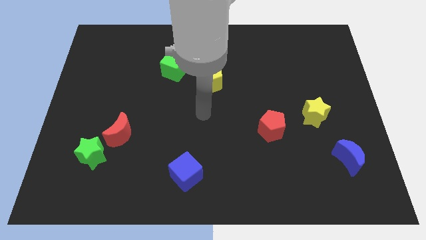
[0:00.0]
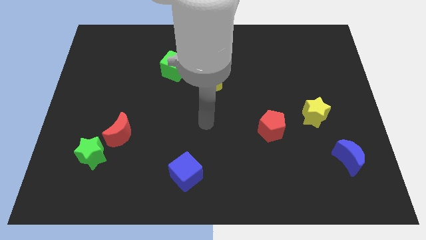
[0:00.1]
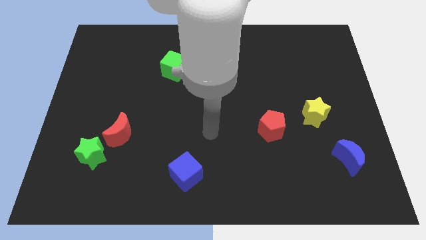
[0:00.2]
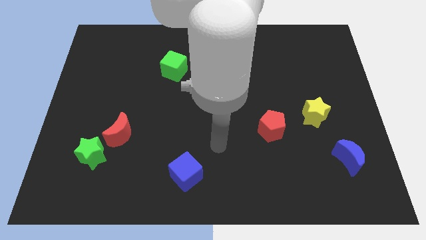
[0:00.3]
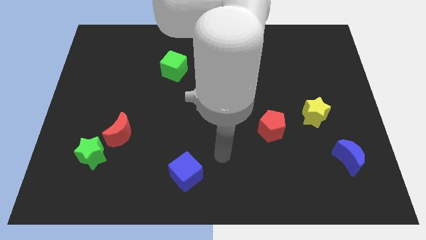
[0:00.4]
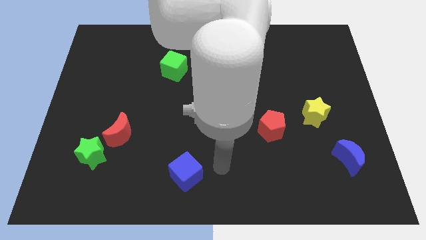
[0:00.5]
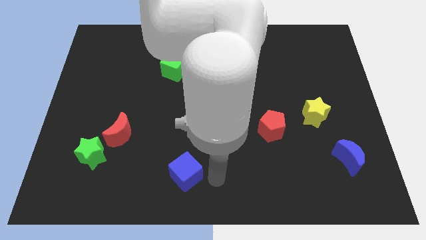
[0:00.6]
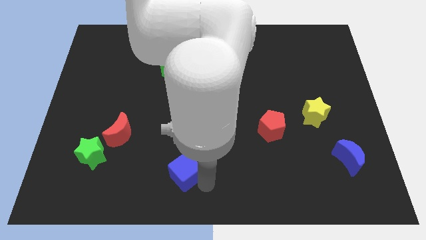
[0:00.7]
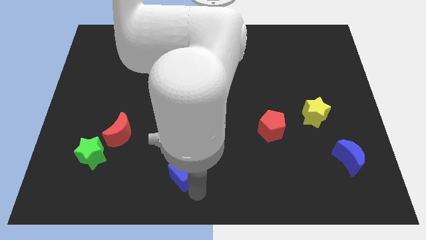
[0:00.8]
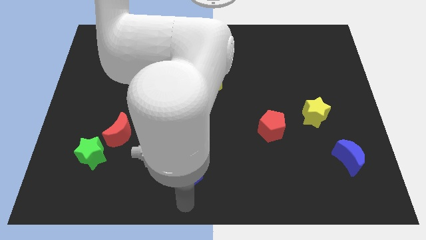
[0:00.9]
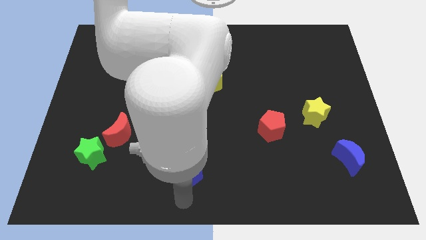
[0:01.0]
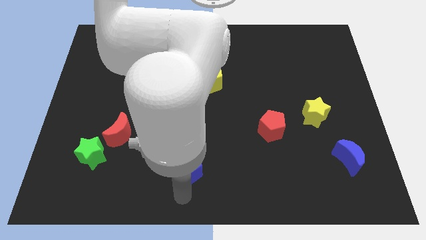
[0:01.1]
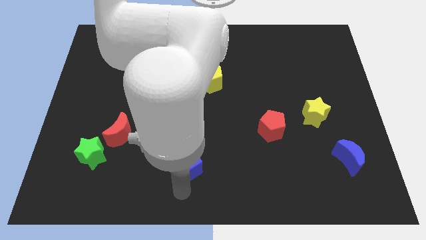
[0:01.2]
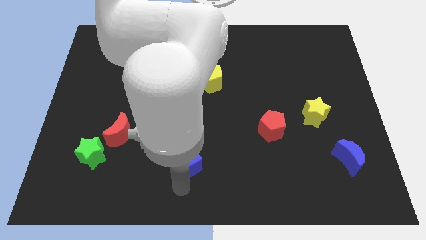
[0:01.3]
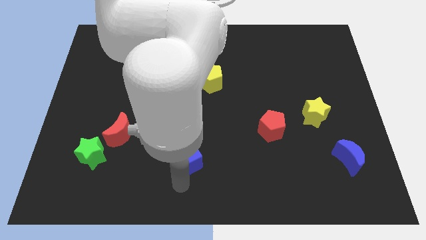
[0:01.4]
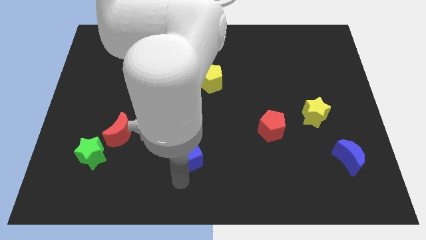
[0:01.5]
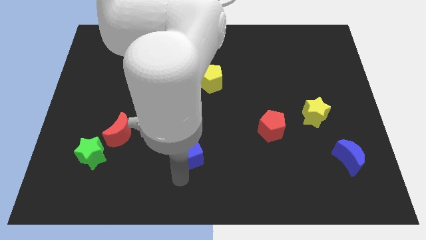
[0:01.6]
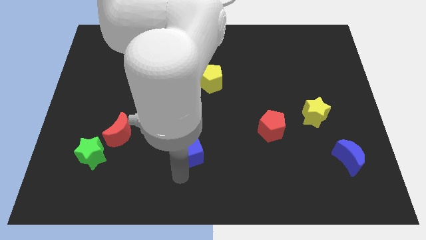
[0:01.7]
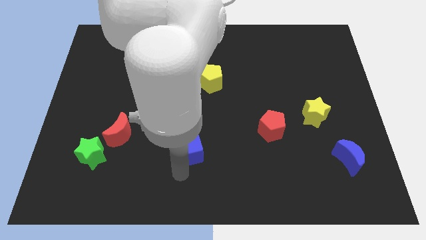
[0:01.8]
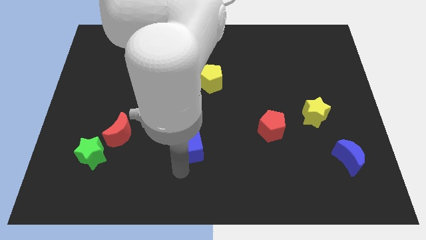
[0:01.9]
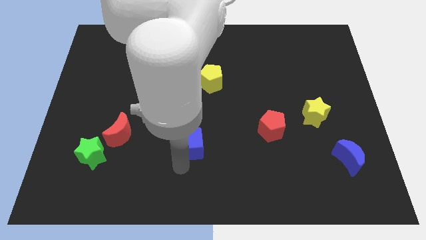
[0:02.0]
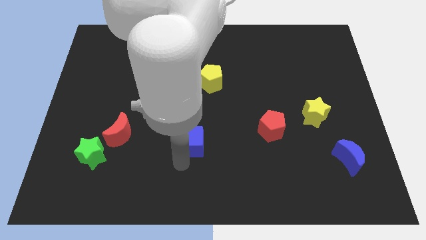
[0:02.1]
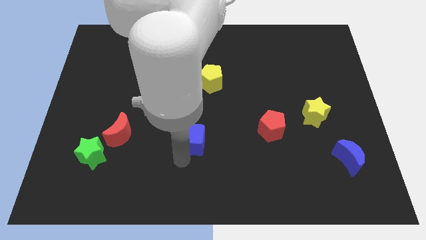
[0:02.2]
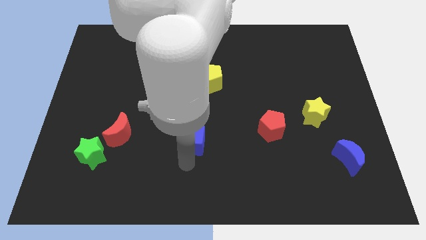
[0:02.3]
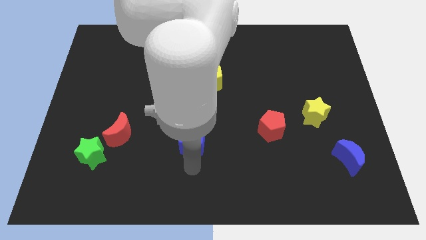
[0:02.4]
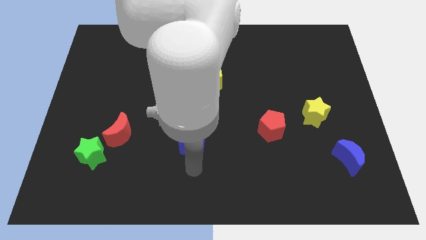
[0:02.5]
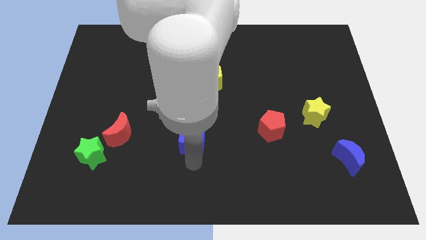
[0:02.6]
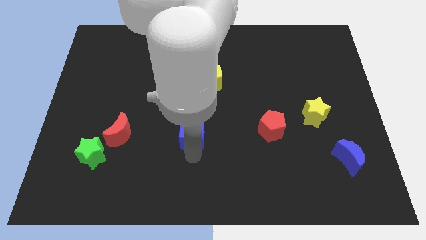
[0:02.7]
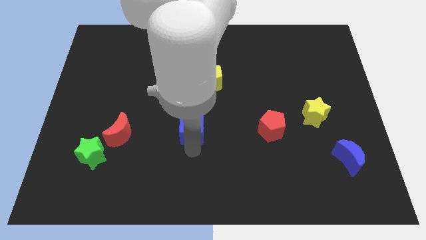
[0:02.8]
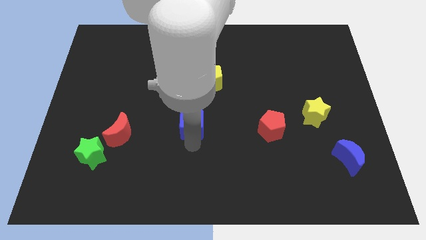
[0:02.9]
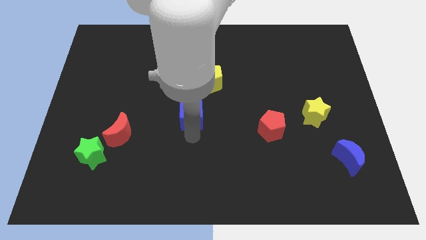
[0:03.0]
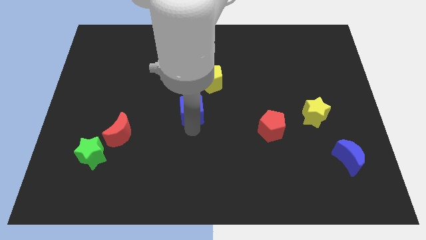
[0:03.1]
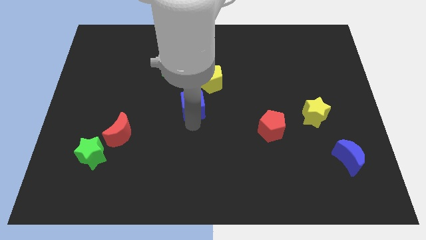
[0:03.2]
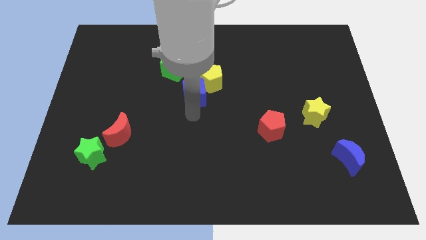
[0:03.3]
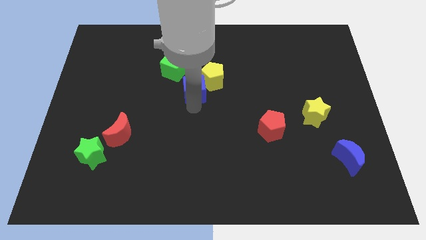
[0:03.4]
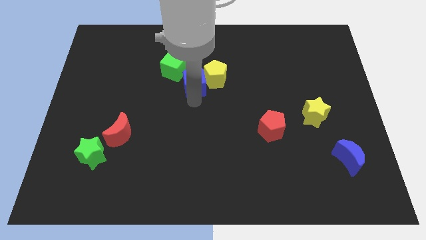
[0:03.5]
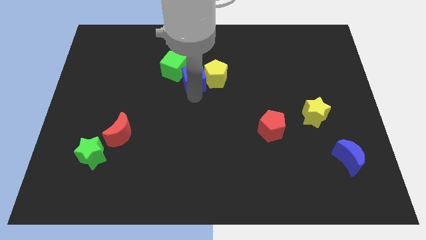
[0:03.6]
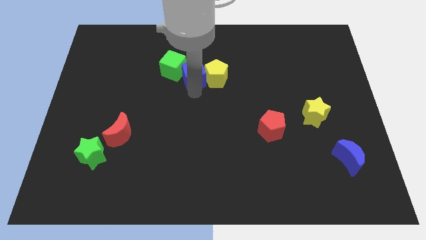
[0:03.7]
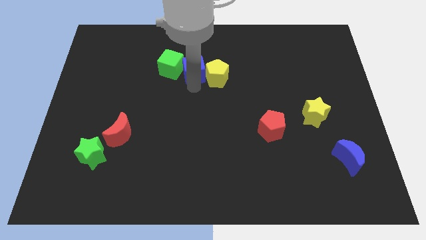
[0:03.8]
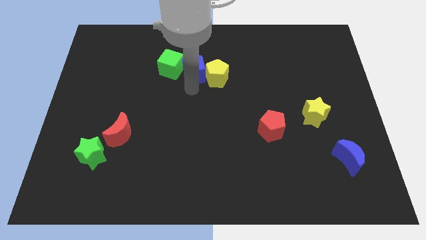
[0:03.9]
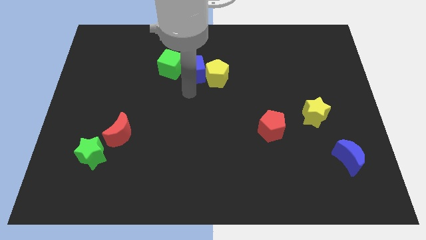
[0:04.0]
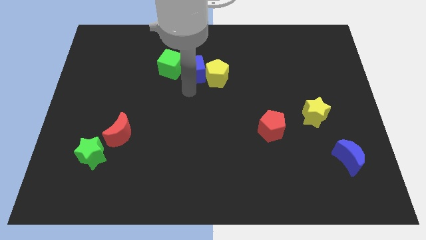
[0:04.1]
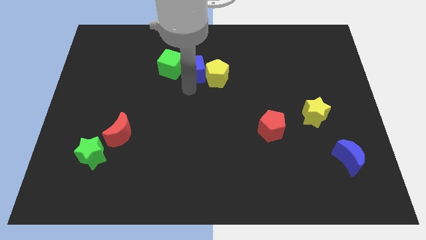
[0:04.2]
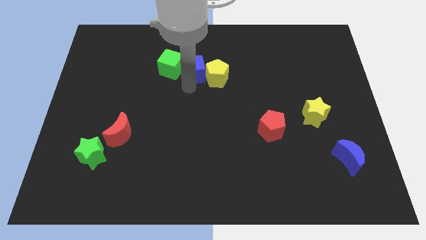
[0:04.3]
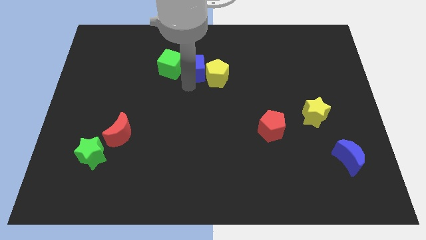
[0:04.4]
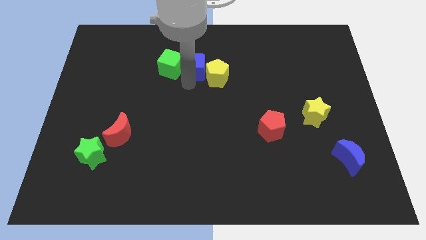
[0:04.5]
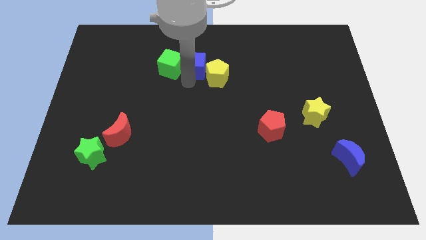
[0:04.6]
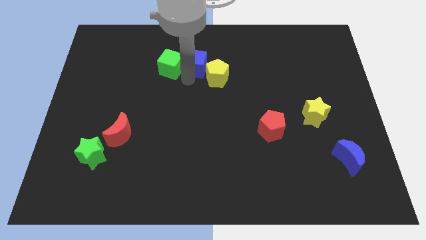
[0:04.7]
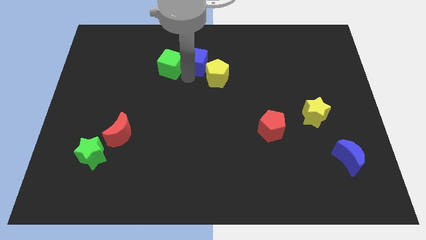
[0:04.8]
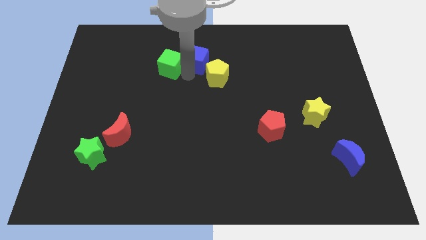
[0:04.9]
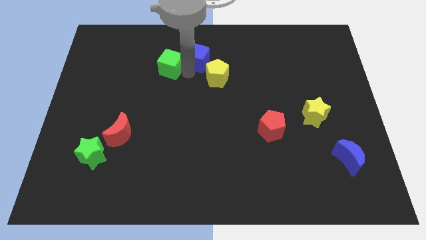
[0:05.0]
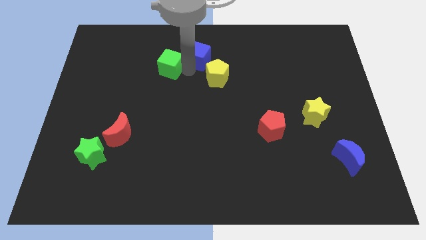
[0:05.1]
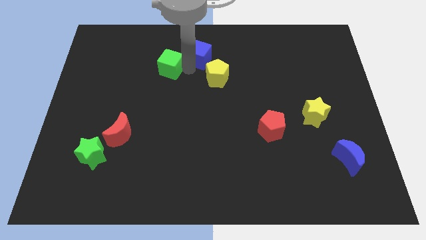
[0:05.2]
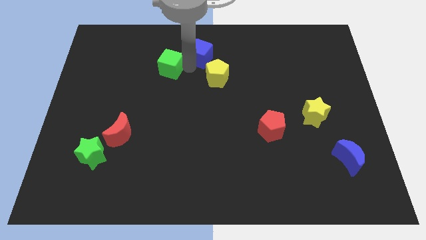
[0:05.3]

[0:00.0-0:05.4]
move the blue cube to the towards your base
